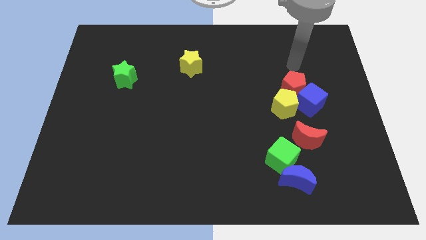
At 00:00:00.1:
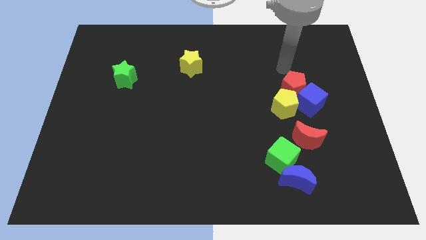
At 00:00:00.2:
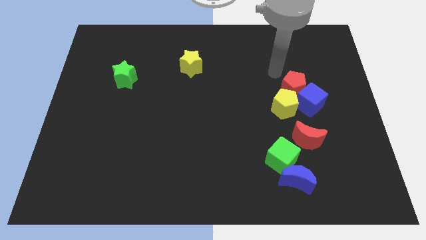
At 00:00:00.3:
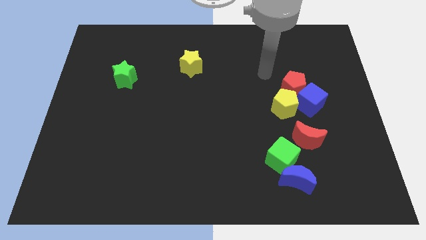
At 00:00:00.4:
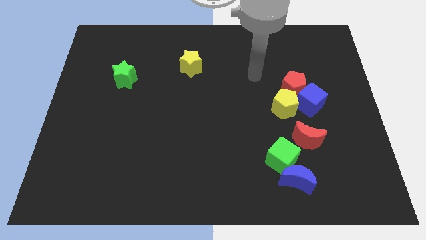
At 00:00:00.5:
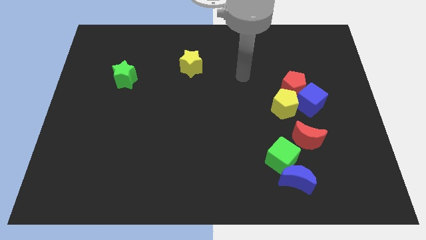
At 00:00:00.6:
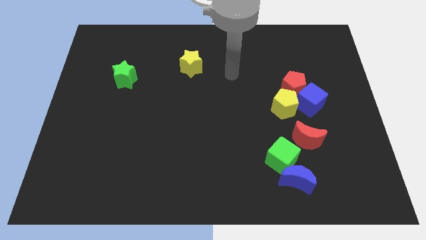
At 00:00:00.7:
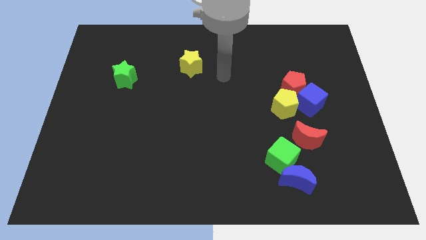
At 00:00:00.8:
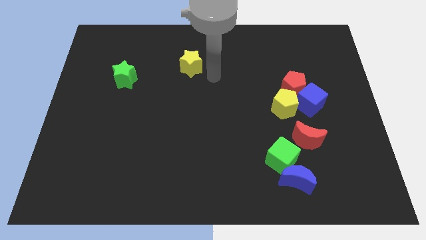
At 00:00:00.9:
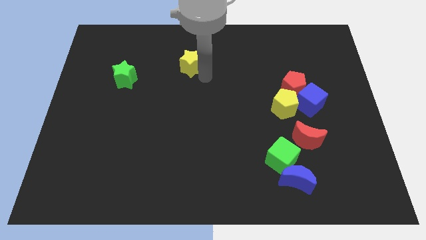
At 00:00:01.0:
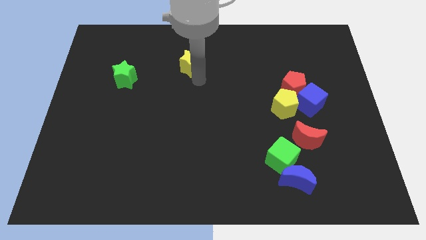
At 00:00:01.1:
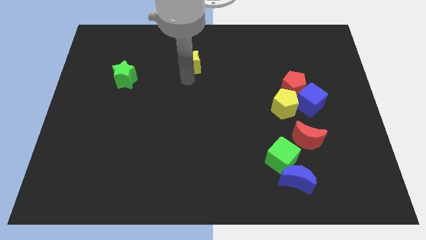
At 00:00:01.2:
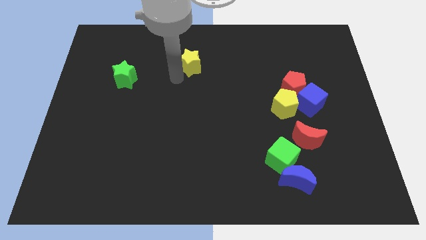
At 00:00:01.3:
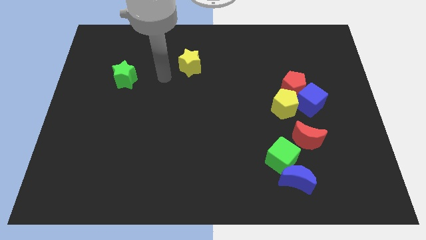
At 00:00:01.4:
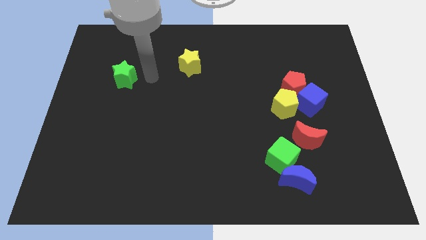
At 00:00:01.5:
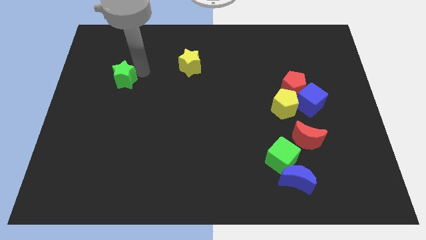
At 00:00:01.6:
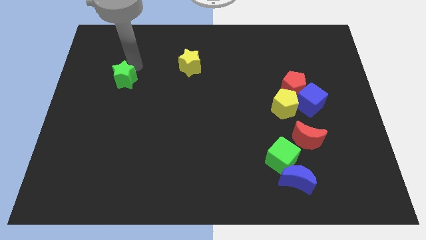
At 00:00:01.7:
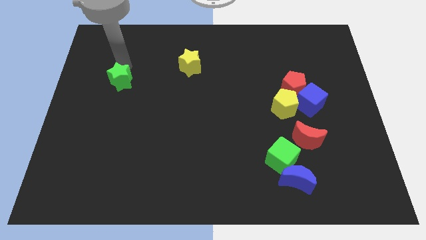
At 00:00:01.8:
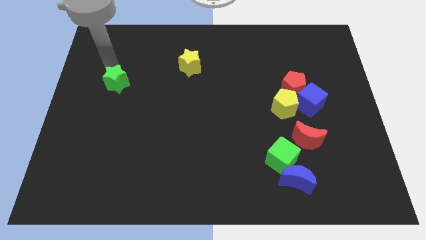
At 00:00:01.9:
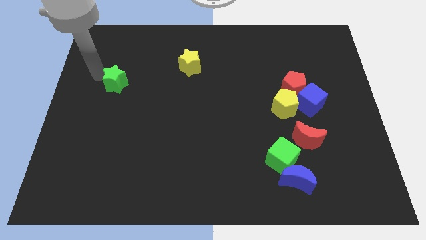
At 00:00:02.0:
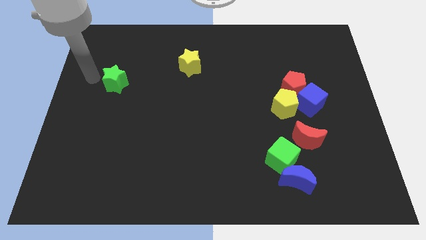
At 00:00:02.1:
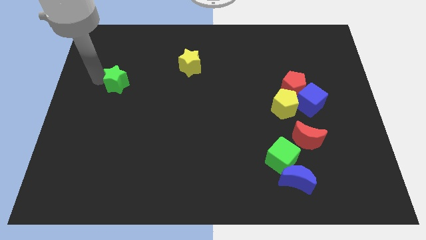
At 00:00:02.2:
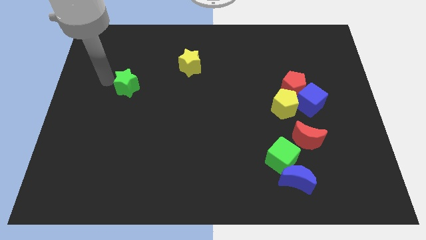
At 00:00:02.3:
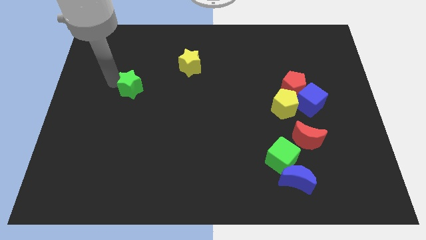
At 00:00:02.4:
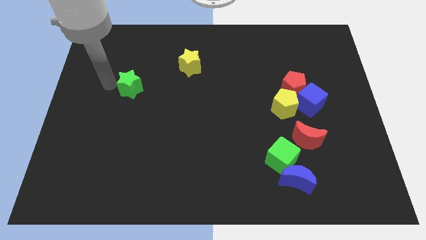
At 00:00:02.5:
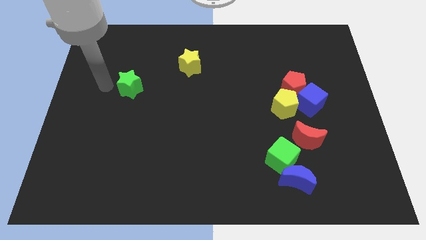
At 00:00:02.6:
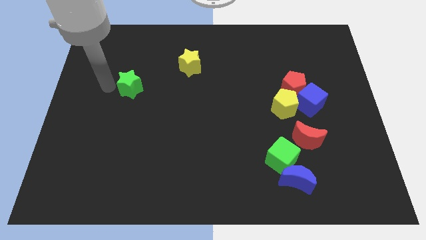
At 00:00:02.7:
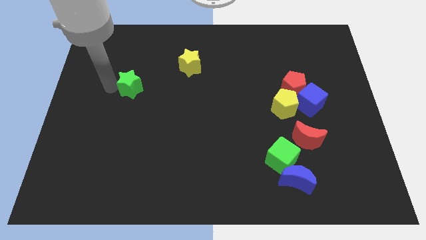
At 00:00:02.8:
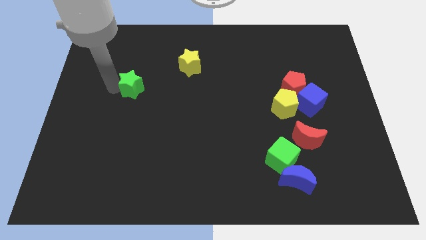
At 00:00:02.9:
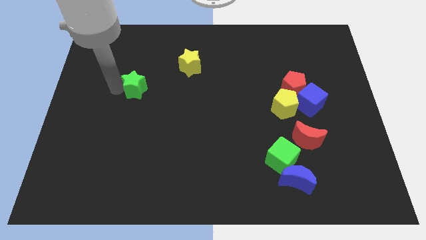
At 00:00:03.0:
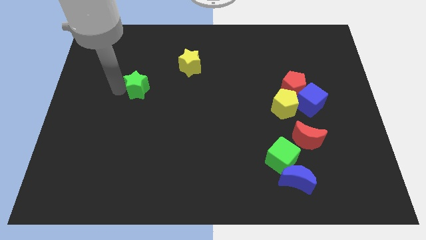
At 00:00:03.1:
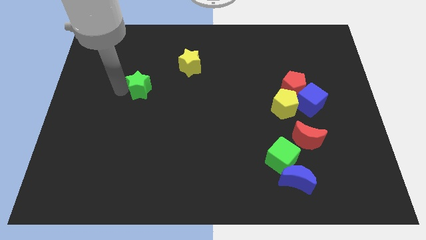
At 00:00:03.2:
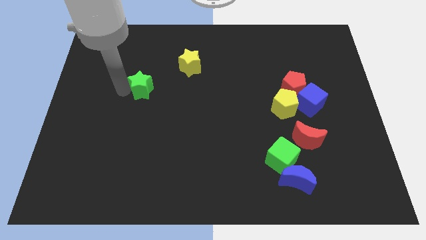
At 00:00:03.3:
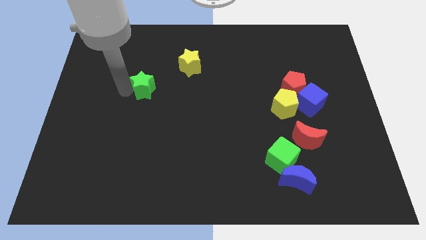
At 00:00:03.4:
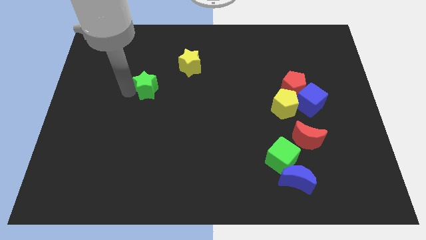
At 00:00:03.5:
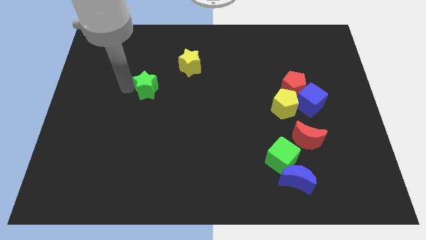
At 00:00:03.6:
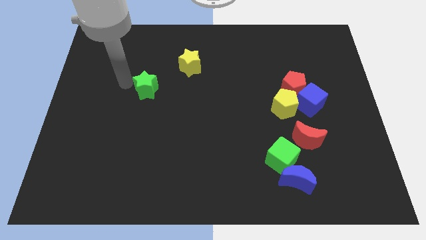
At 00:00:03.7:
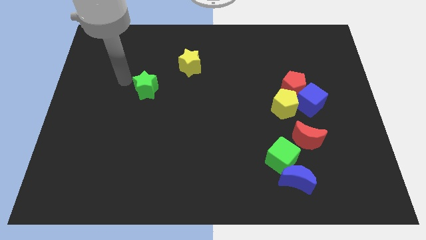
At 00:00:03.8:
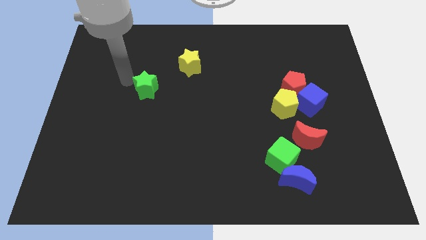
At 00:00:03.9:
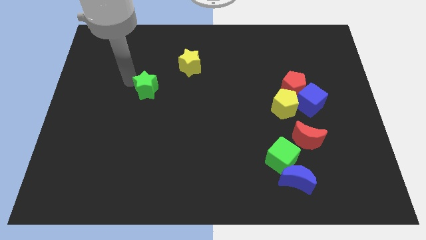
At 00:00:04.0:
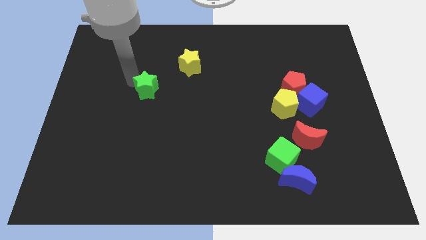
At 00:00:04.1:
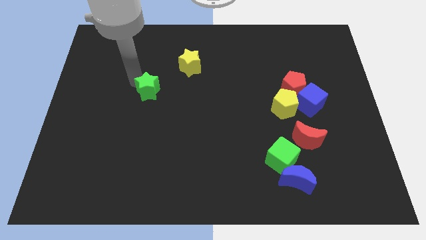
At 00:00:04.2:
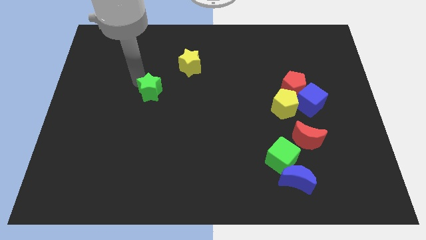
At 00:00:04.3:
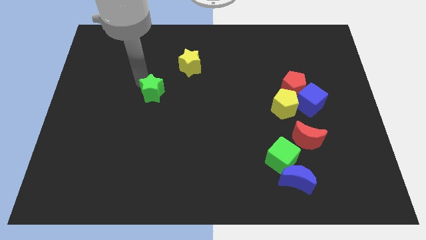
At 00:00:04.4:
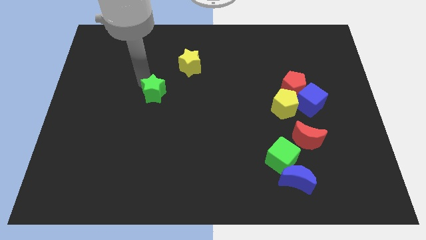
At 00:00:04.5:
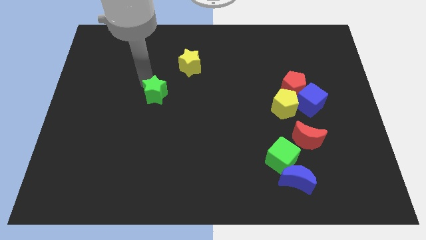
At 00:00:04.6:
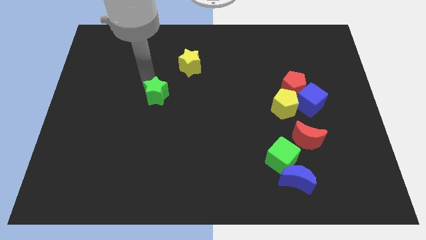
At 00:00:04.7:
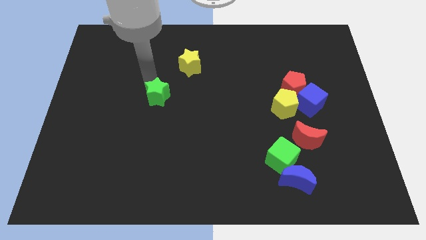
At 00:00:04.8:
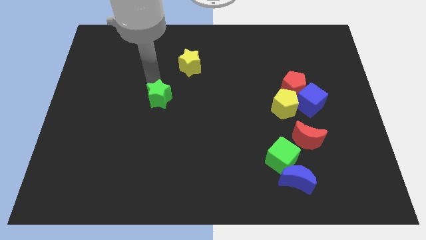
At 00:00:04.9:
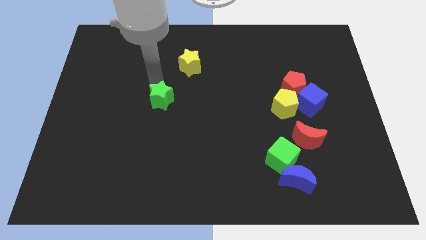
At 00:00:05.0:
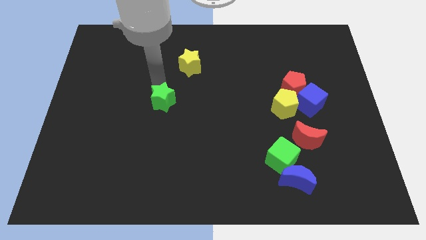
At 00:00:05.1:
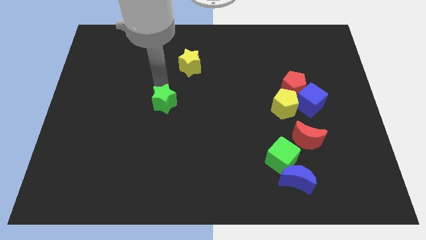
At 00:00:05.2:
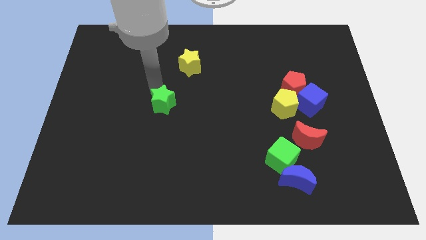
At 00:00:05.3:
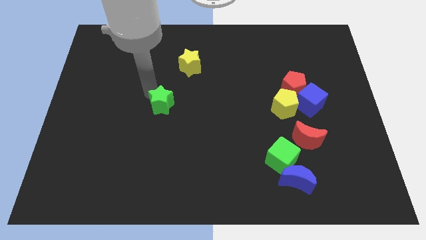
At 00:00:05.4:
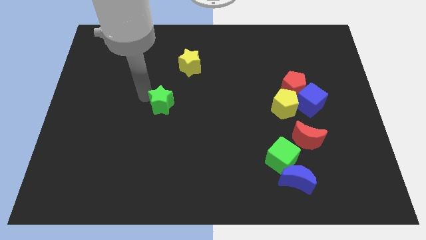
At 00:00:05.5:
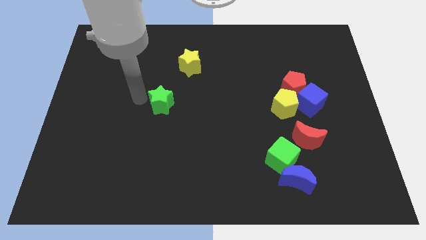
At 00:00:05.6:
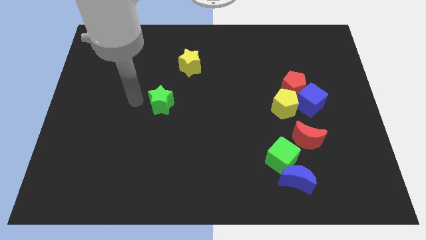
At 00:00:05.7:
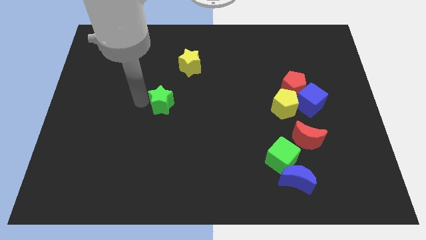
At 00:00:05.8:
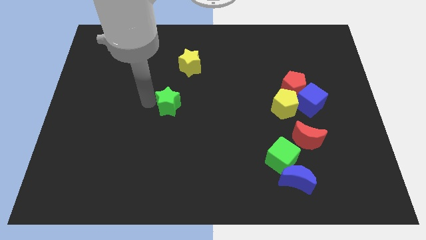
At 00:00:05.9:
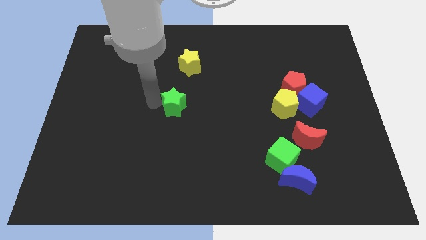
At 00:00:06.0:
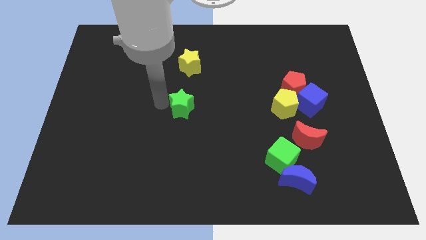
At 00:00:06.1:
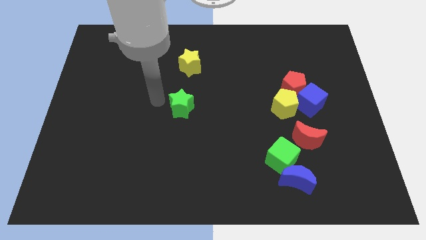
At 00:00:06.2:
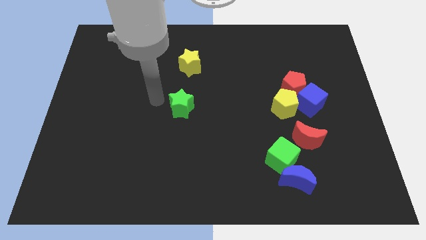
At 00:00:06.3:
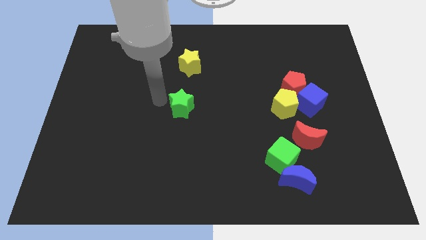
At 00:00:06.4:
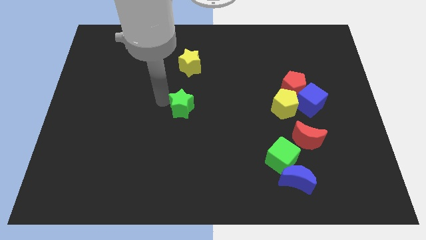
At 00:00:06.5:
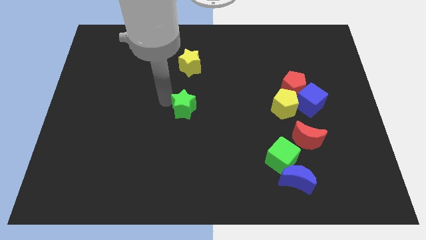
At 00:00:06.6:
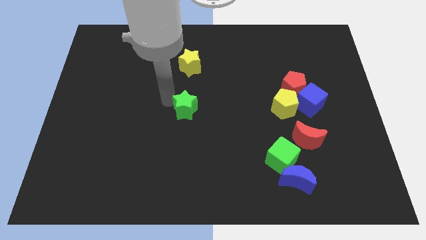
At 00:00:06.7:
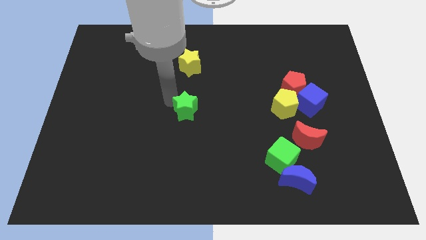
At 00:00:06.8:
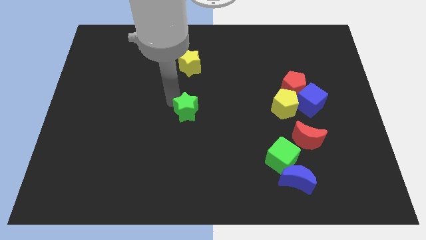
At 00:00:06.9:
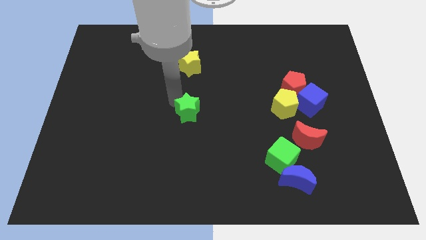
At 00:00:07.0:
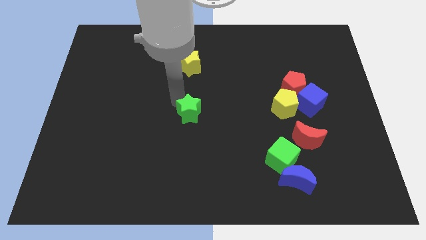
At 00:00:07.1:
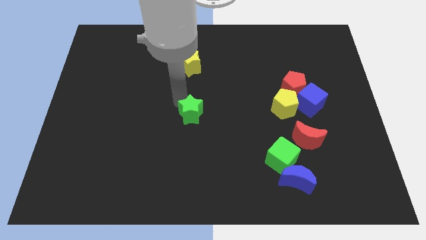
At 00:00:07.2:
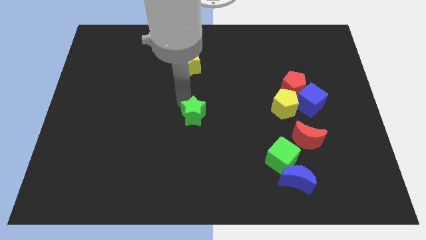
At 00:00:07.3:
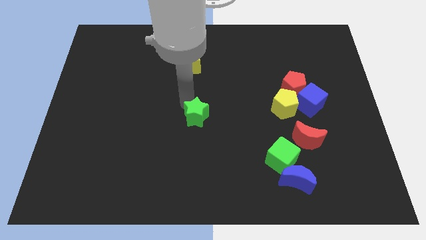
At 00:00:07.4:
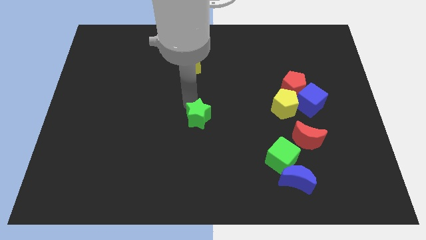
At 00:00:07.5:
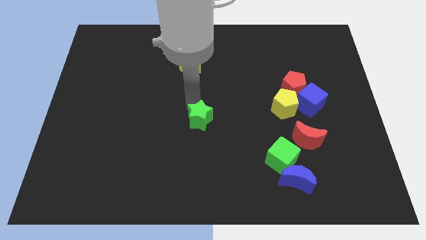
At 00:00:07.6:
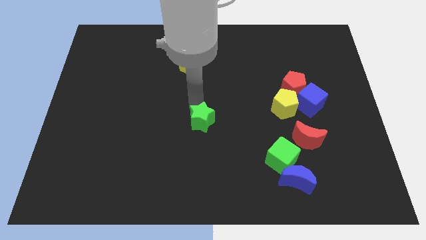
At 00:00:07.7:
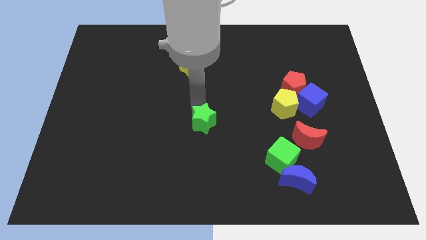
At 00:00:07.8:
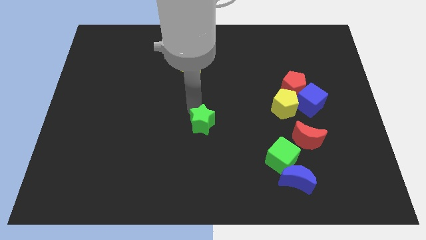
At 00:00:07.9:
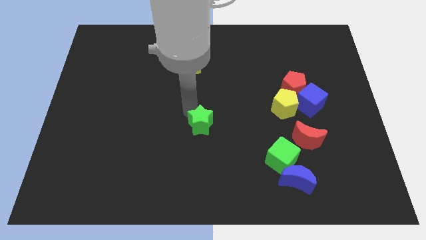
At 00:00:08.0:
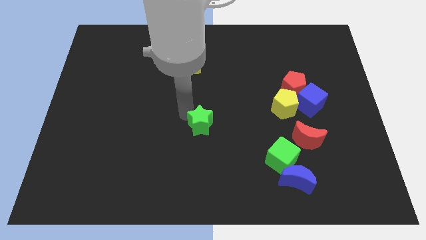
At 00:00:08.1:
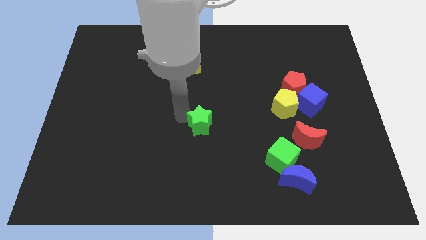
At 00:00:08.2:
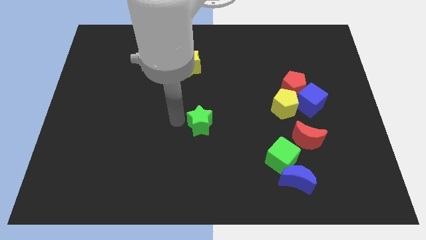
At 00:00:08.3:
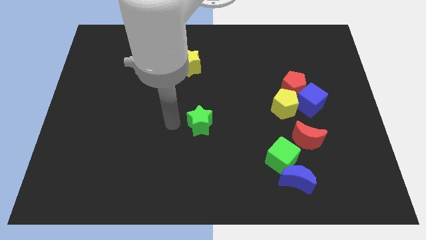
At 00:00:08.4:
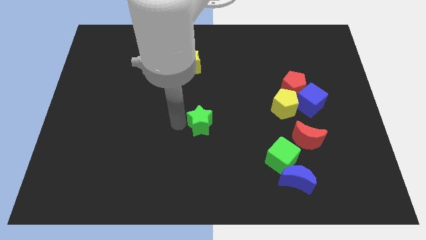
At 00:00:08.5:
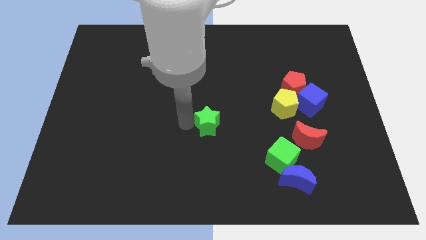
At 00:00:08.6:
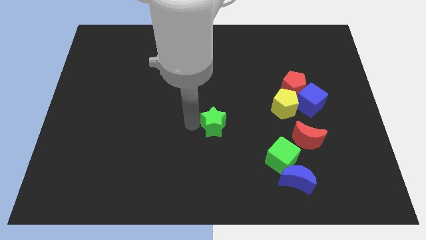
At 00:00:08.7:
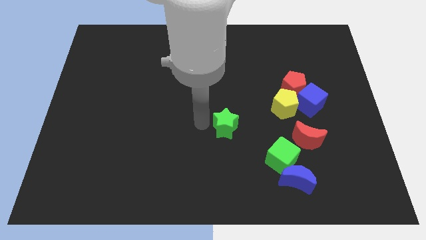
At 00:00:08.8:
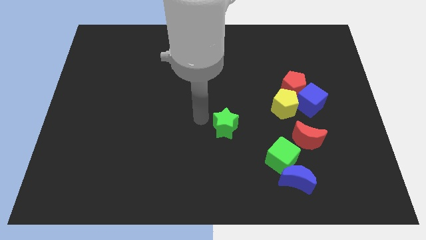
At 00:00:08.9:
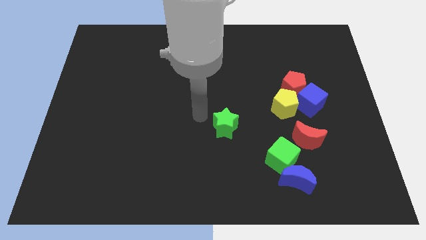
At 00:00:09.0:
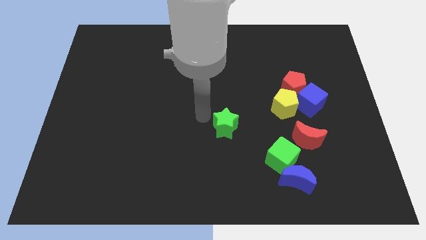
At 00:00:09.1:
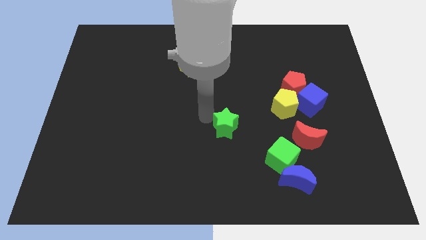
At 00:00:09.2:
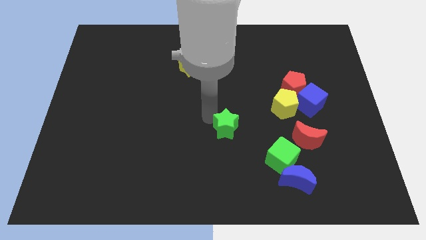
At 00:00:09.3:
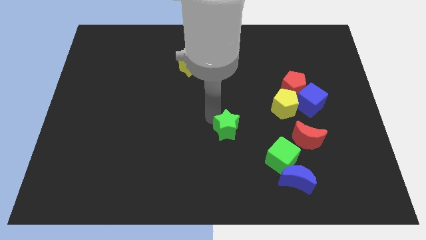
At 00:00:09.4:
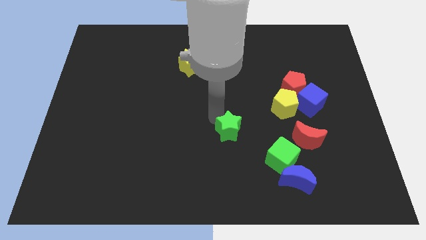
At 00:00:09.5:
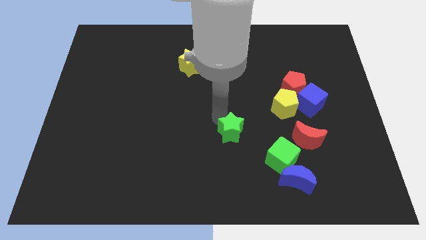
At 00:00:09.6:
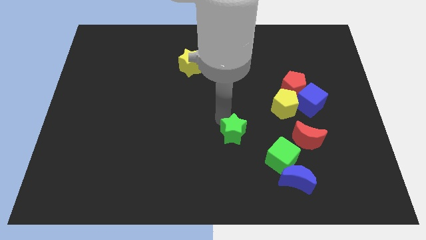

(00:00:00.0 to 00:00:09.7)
put the green star diagonally up and to the left of the green cube
